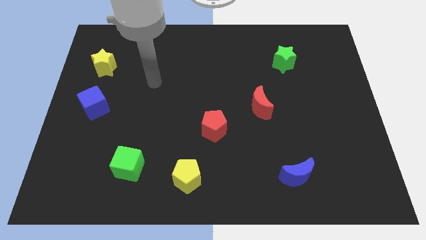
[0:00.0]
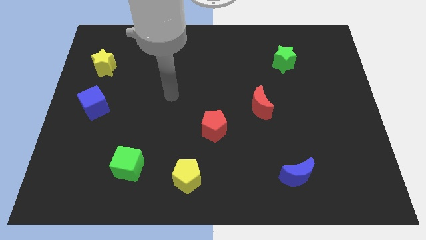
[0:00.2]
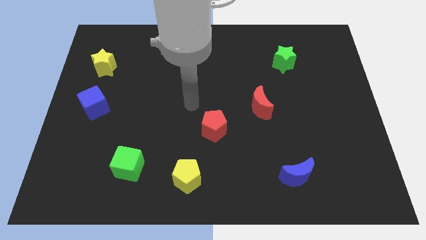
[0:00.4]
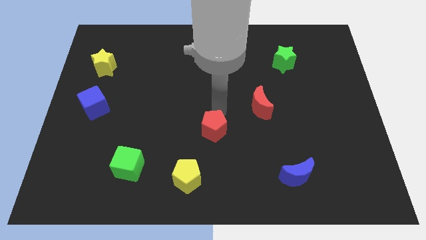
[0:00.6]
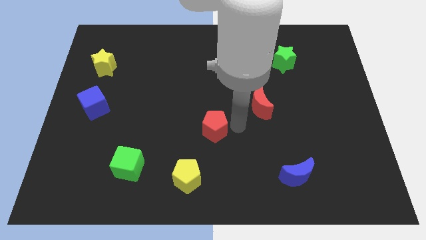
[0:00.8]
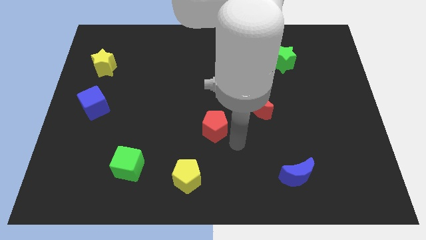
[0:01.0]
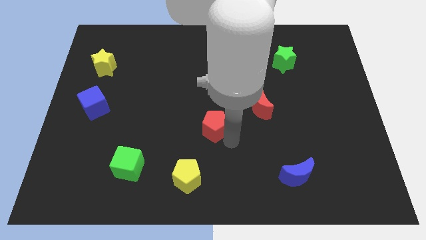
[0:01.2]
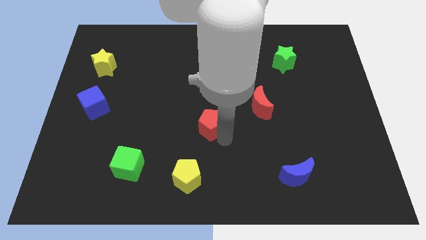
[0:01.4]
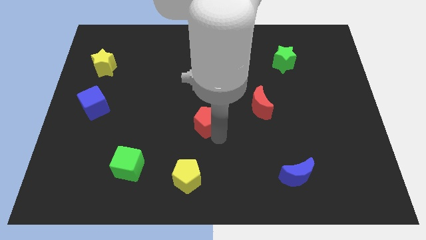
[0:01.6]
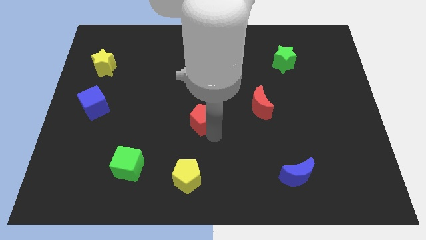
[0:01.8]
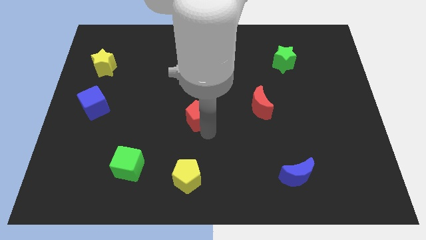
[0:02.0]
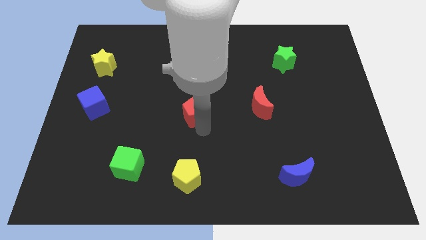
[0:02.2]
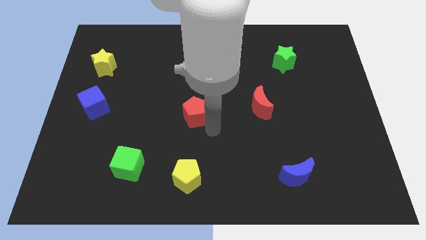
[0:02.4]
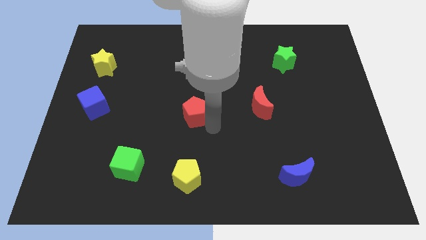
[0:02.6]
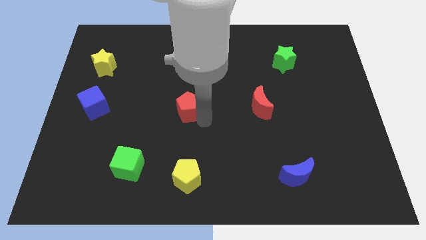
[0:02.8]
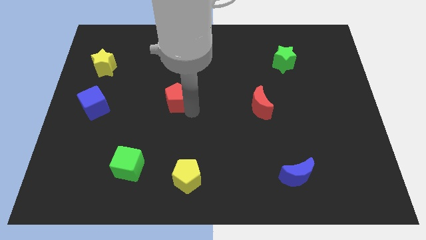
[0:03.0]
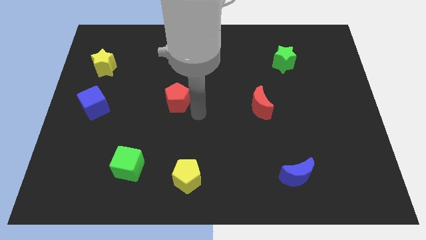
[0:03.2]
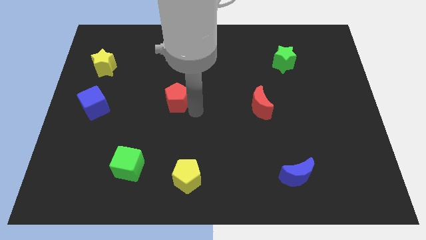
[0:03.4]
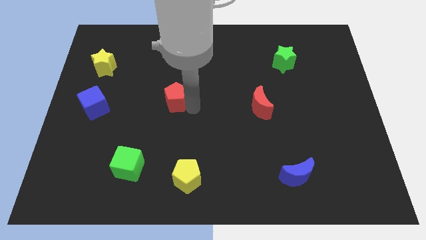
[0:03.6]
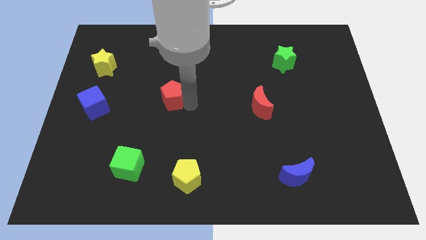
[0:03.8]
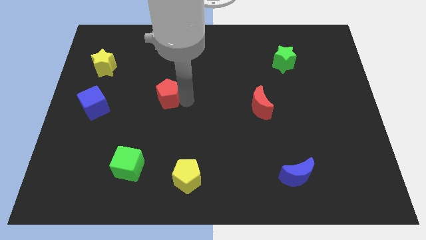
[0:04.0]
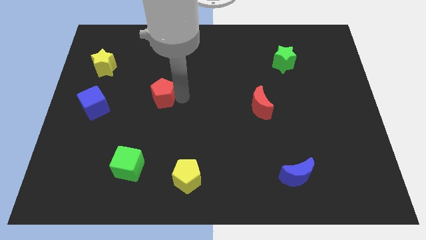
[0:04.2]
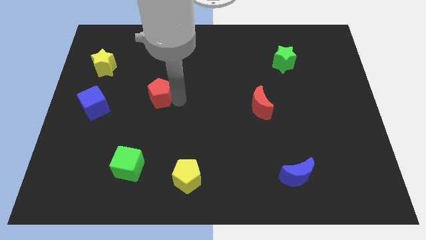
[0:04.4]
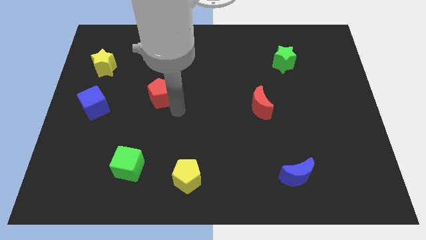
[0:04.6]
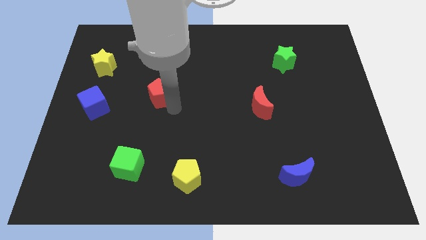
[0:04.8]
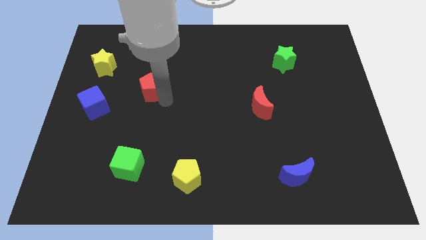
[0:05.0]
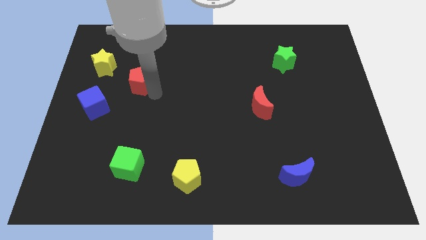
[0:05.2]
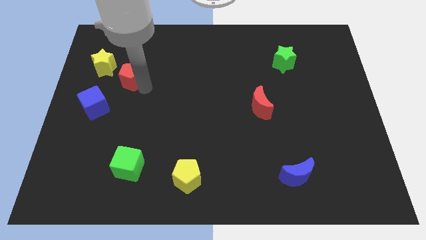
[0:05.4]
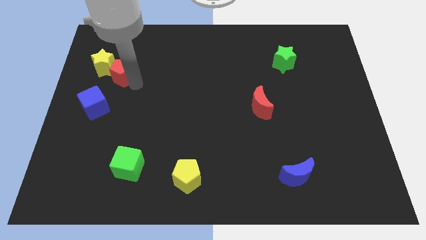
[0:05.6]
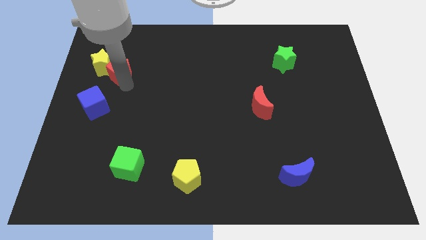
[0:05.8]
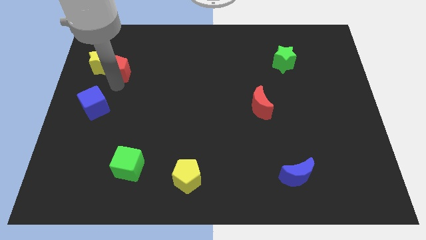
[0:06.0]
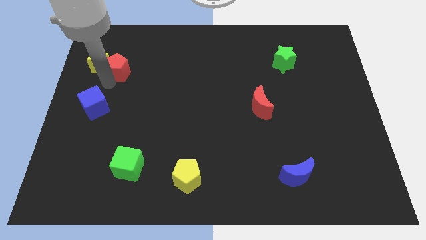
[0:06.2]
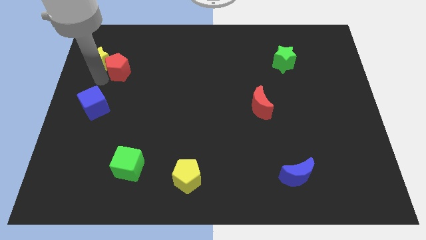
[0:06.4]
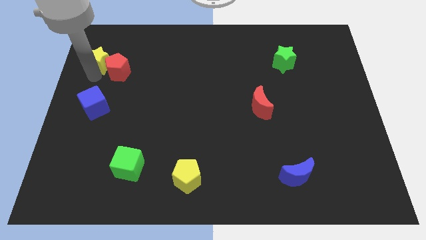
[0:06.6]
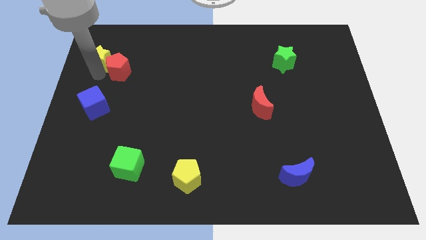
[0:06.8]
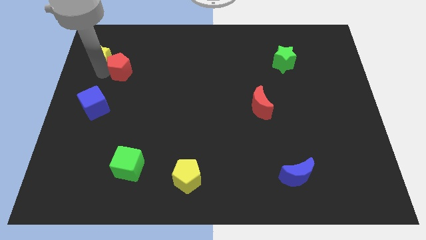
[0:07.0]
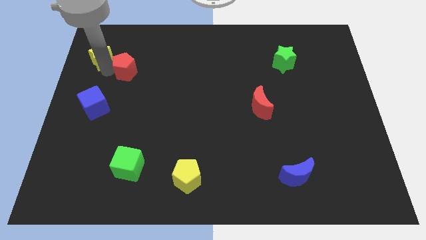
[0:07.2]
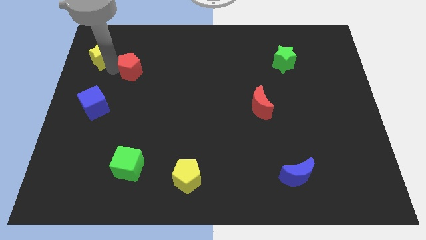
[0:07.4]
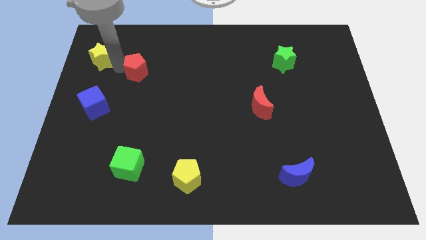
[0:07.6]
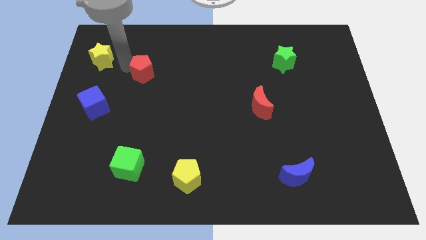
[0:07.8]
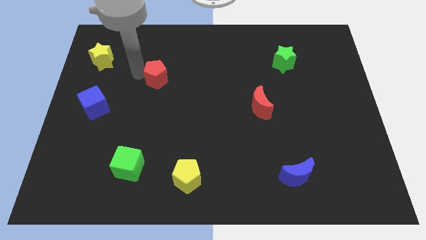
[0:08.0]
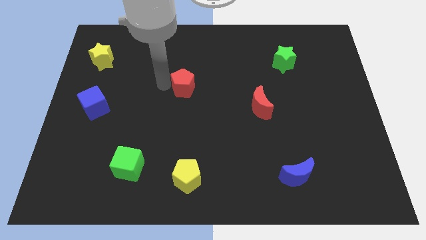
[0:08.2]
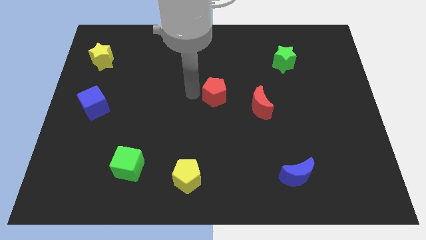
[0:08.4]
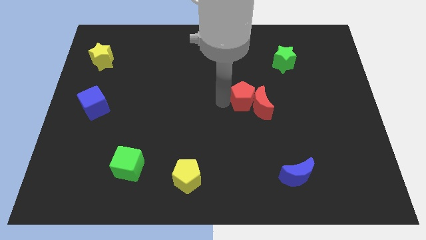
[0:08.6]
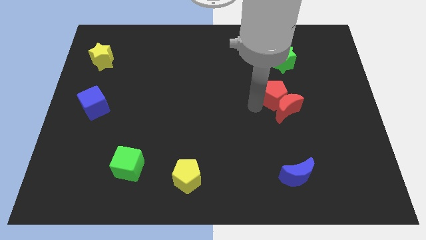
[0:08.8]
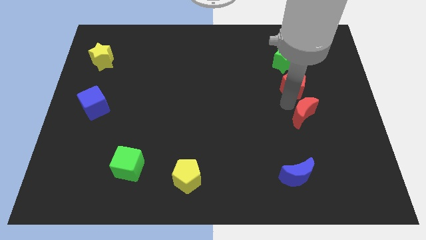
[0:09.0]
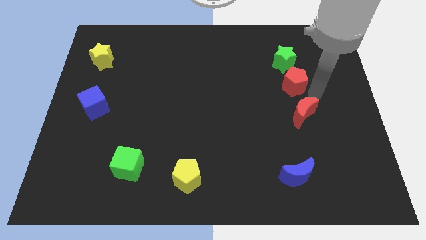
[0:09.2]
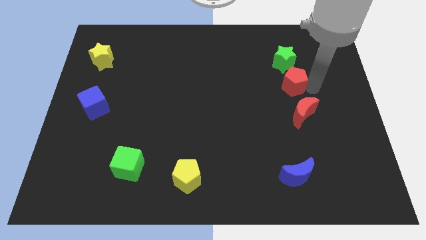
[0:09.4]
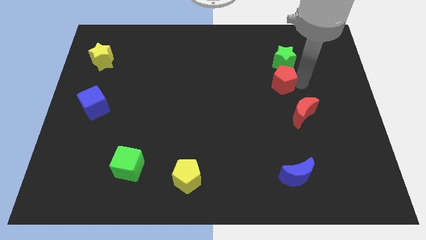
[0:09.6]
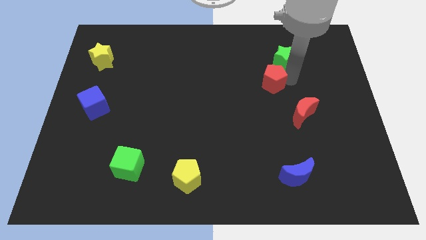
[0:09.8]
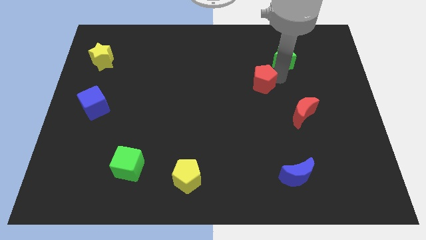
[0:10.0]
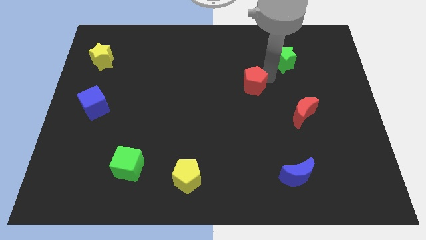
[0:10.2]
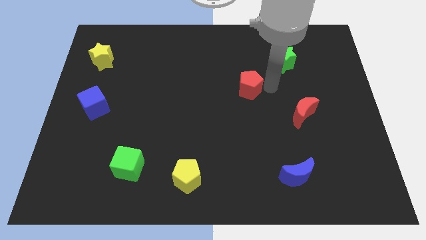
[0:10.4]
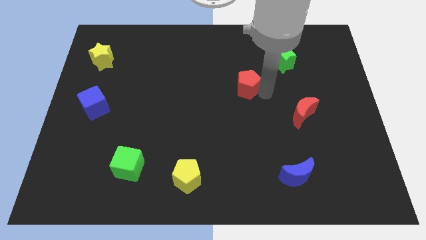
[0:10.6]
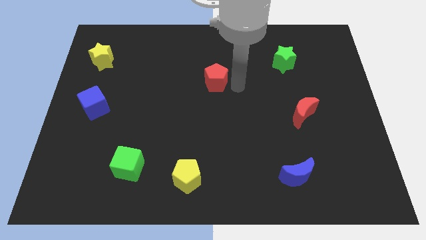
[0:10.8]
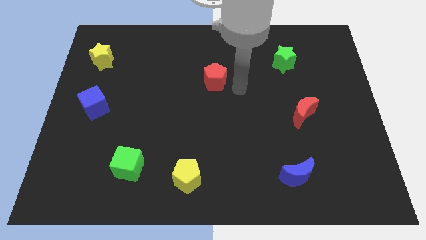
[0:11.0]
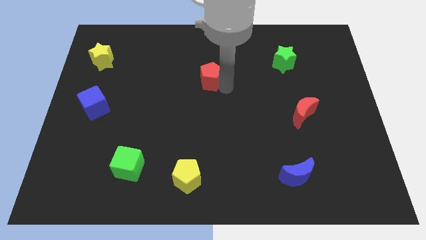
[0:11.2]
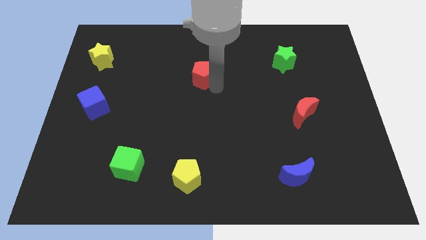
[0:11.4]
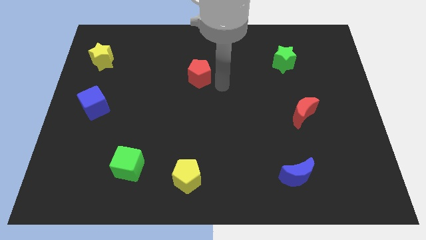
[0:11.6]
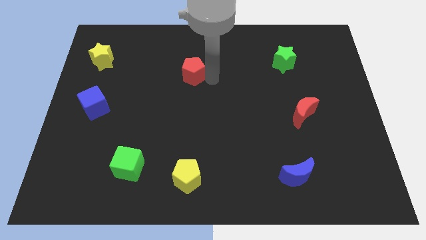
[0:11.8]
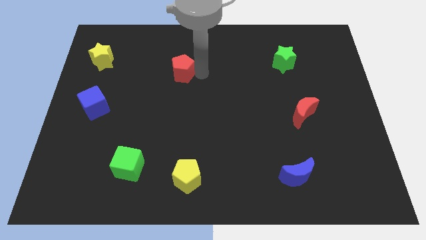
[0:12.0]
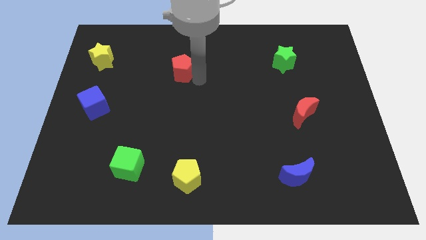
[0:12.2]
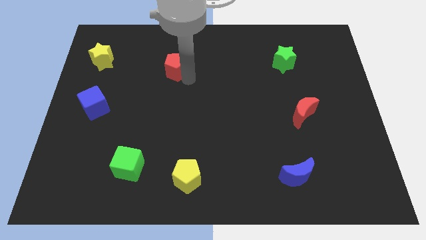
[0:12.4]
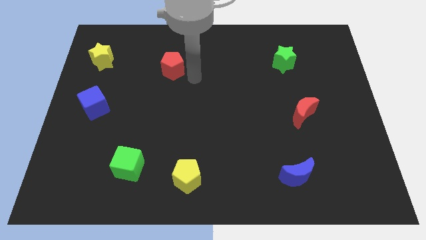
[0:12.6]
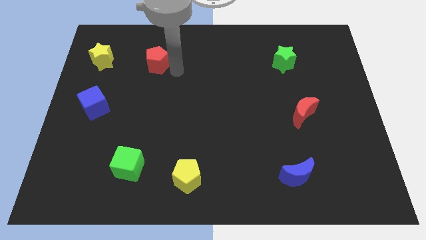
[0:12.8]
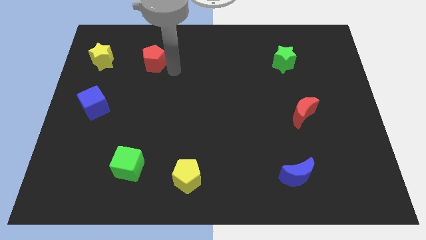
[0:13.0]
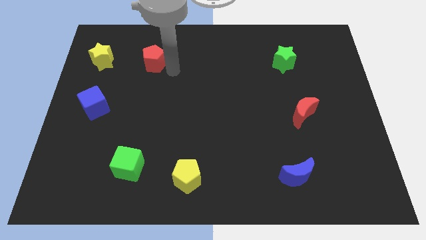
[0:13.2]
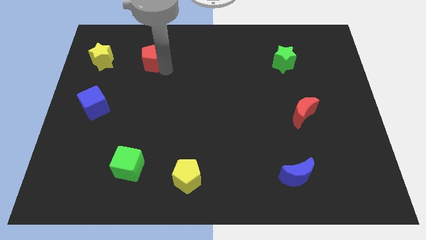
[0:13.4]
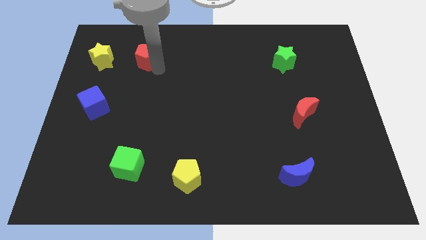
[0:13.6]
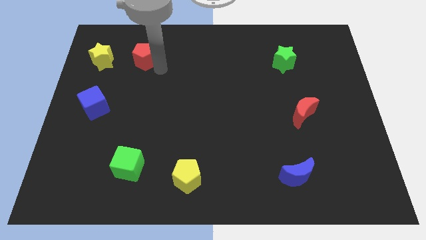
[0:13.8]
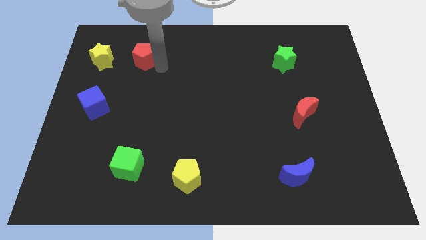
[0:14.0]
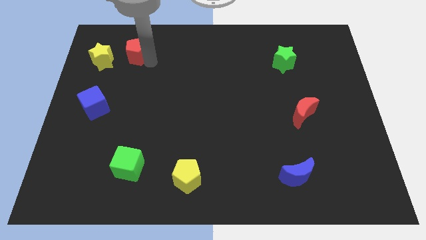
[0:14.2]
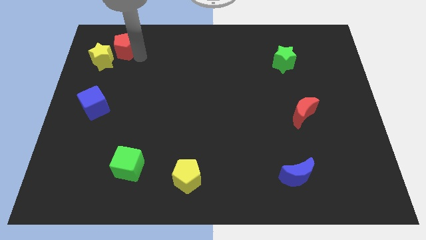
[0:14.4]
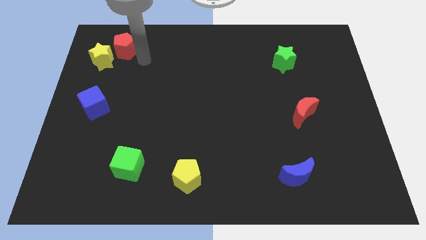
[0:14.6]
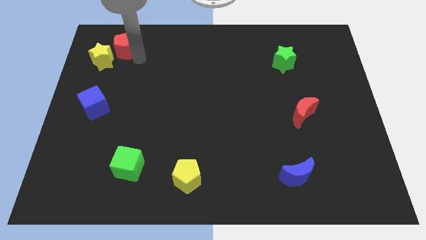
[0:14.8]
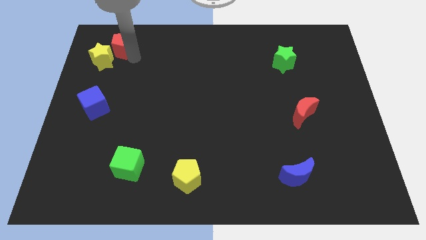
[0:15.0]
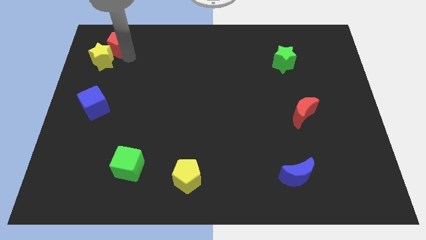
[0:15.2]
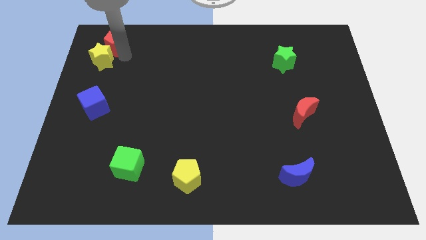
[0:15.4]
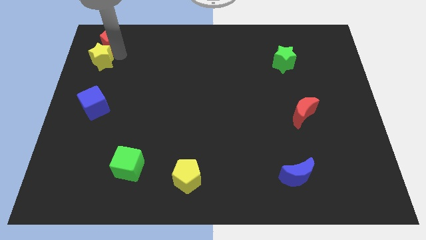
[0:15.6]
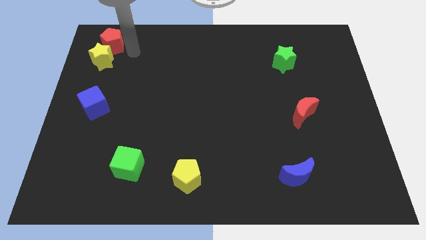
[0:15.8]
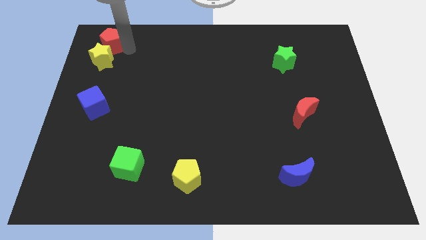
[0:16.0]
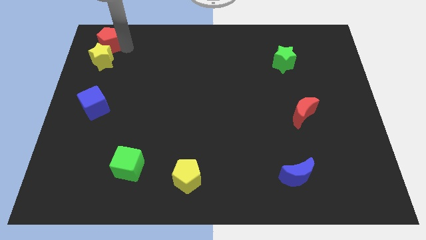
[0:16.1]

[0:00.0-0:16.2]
put the red pentagon to the top left corner
